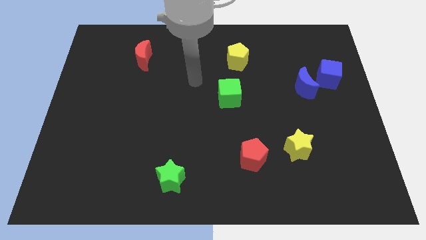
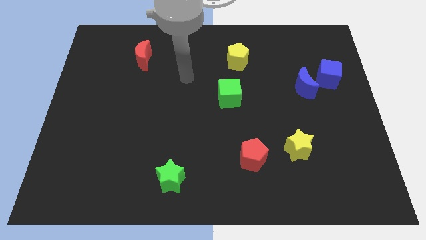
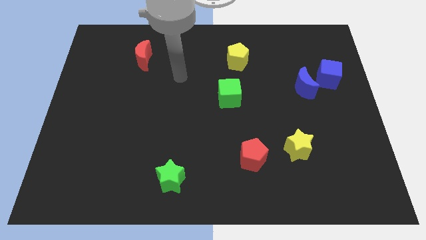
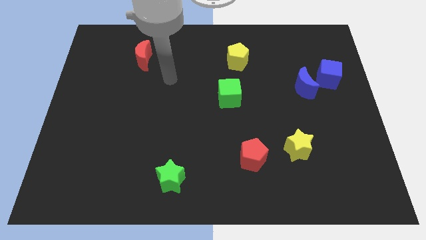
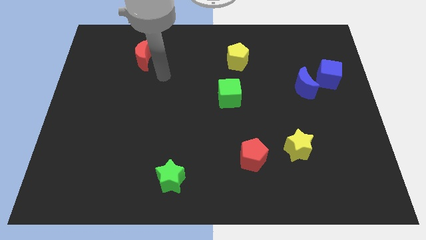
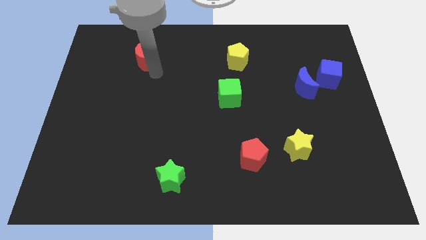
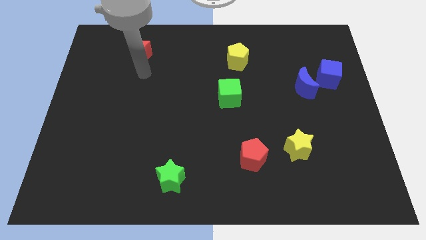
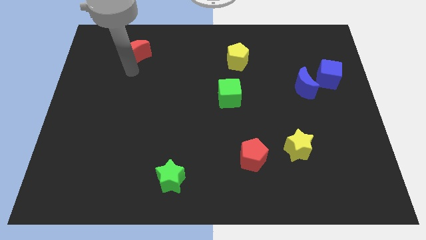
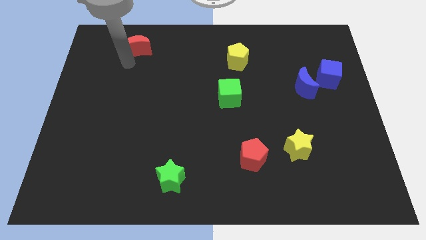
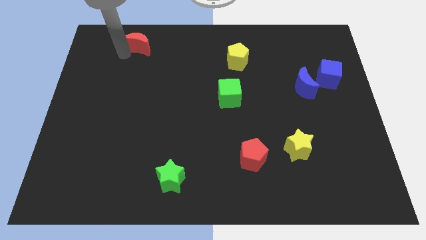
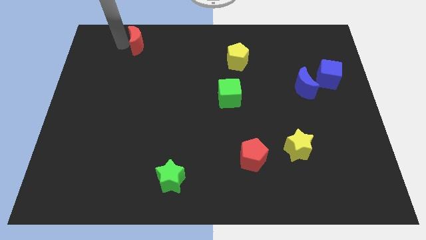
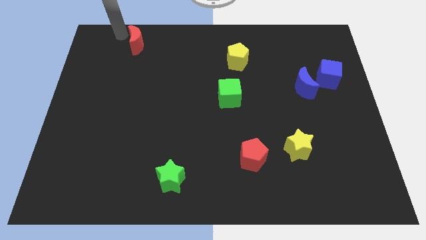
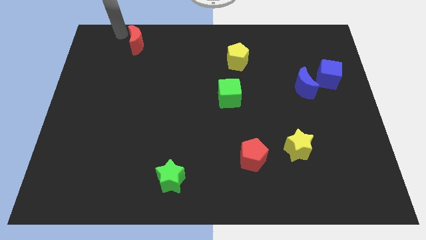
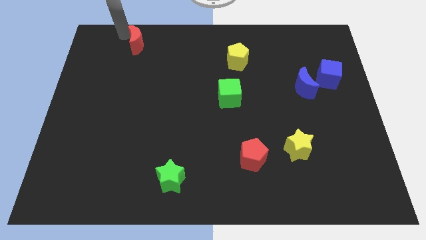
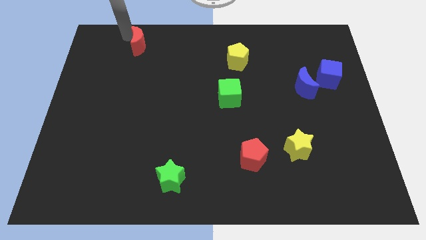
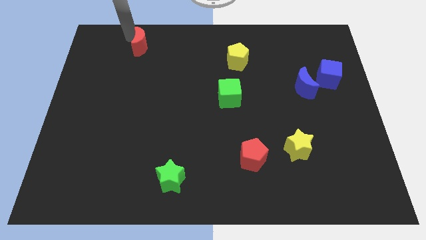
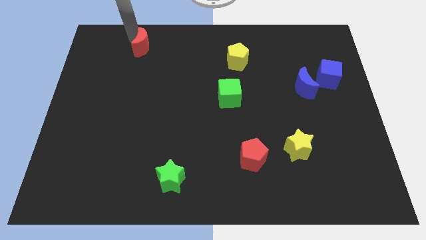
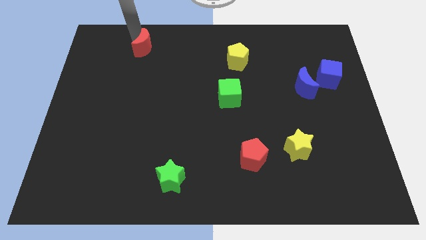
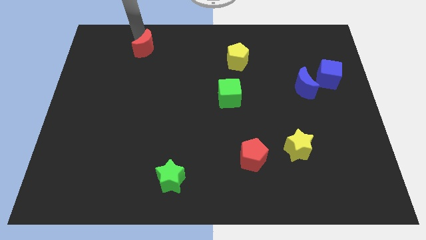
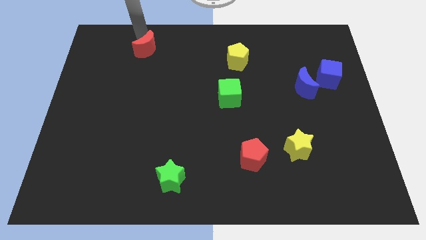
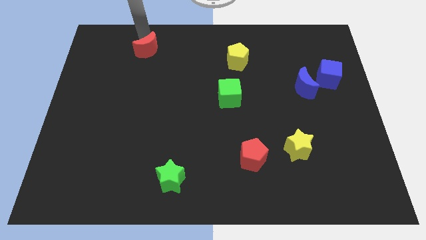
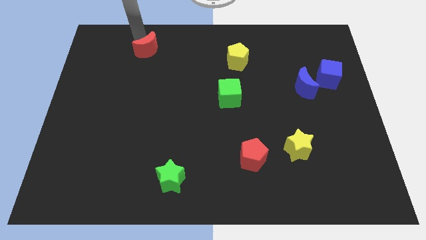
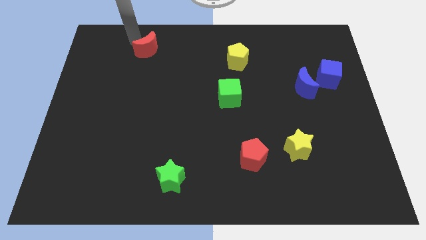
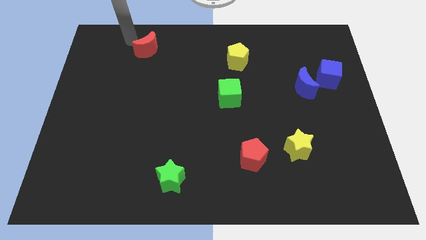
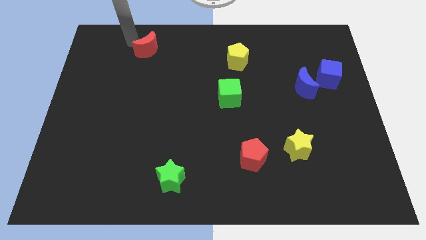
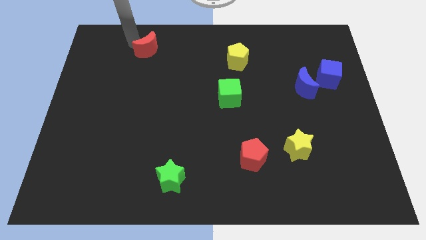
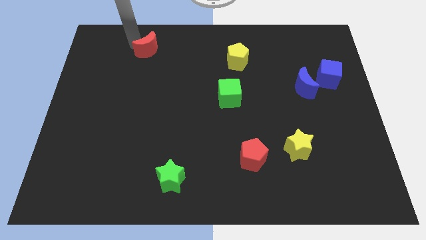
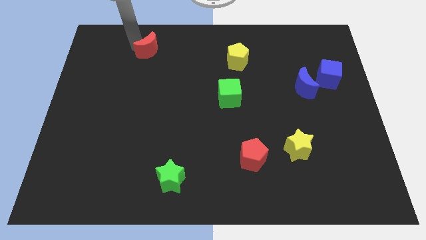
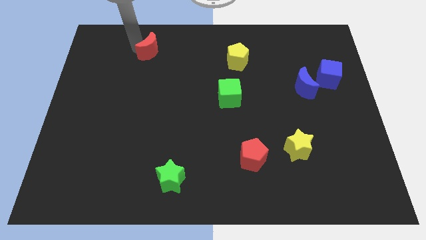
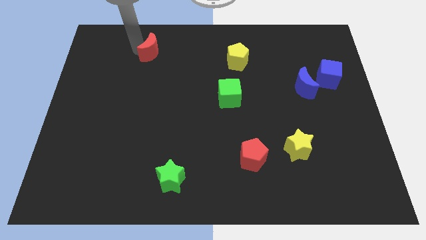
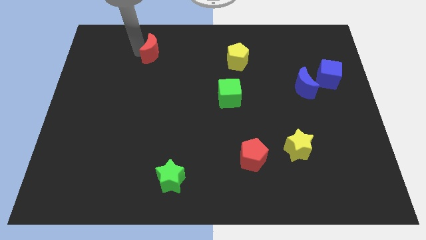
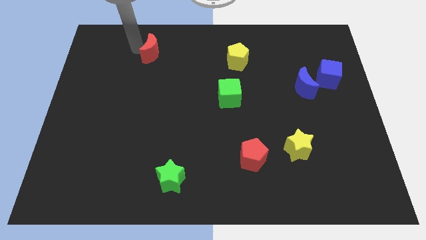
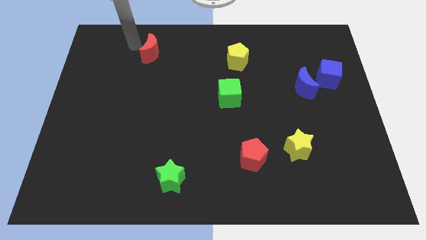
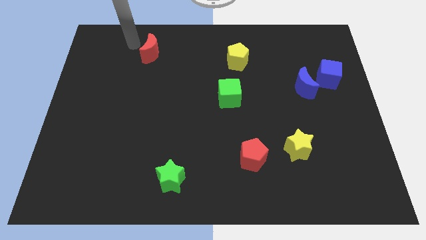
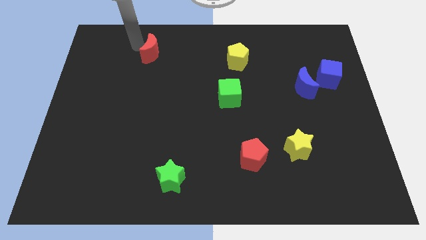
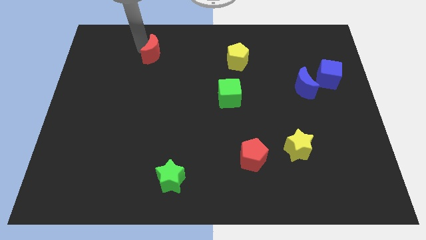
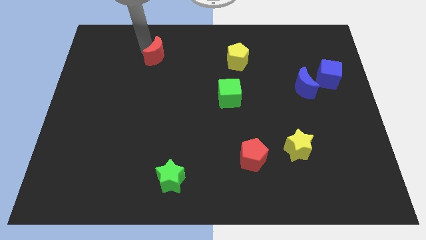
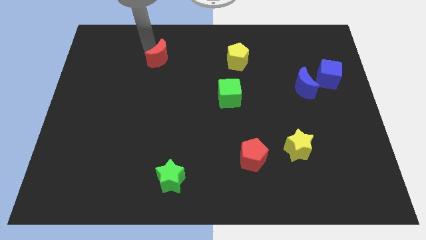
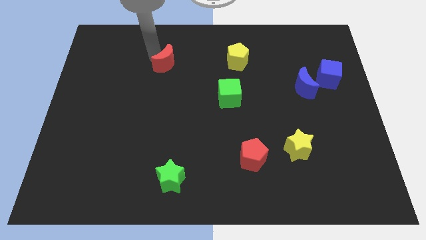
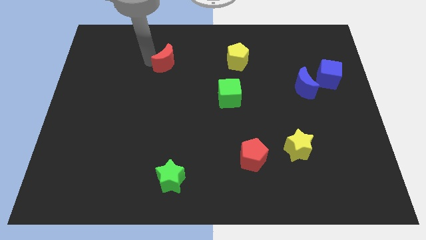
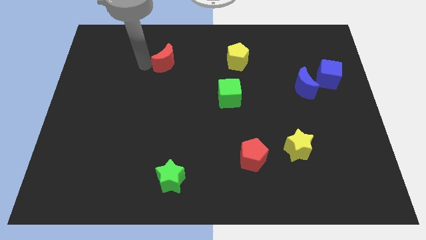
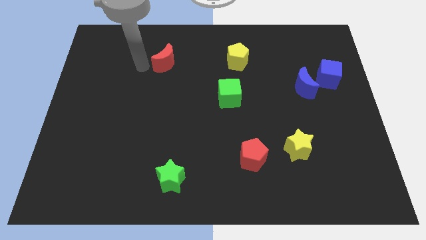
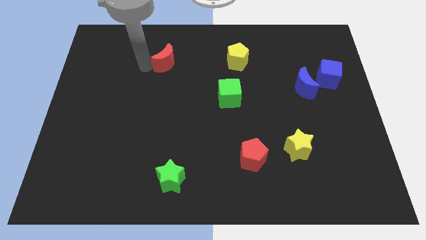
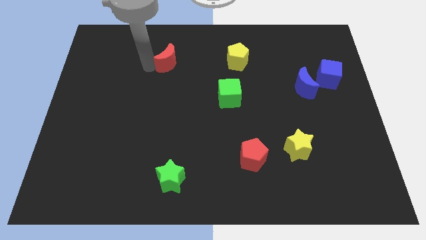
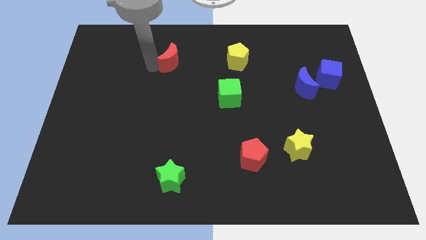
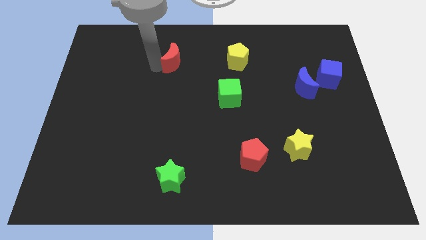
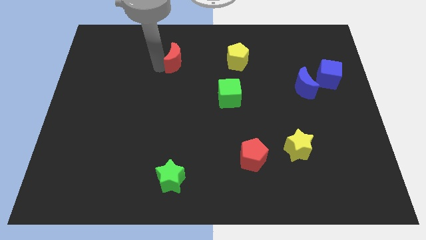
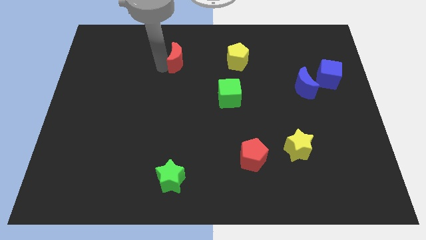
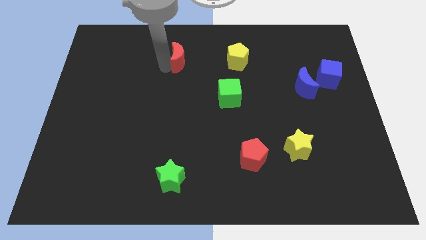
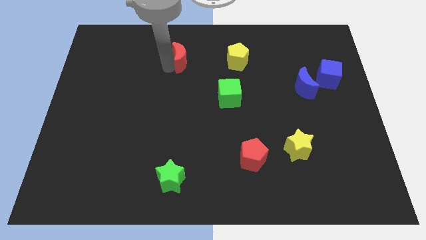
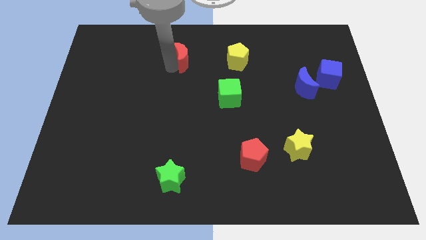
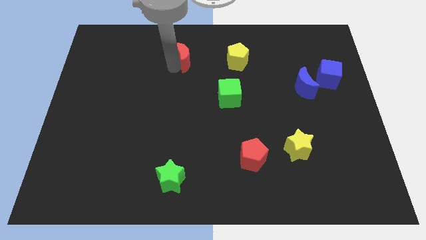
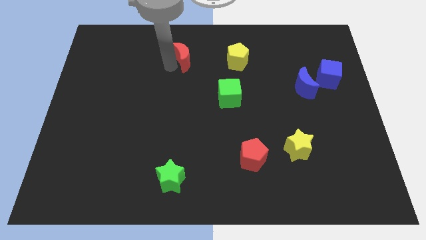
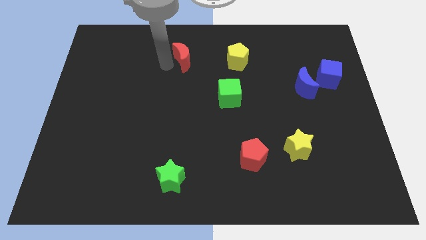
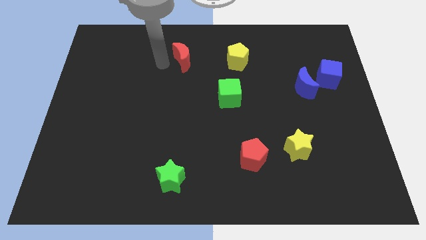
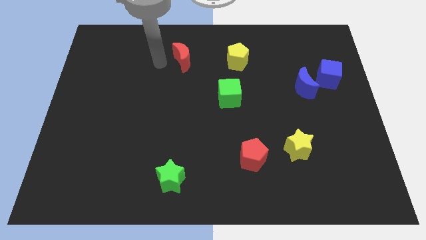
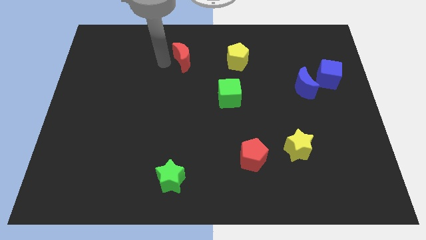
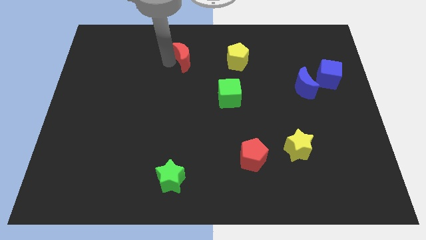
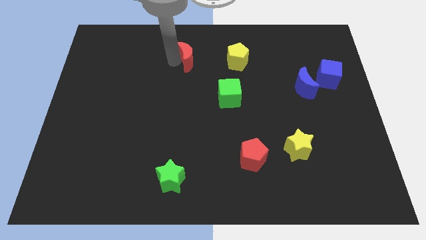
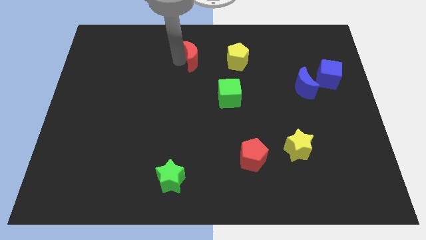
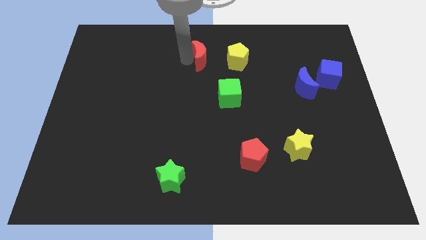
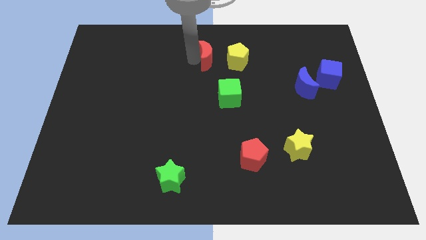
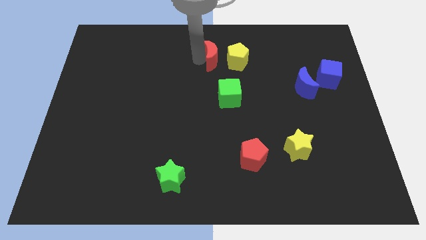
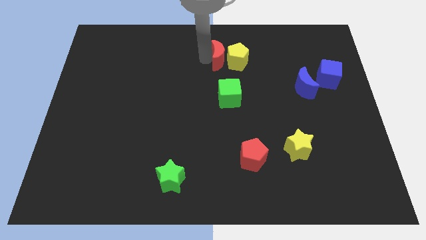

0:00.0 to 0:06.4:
slide the red moon next to the yellow pentagon
